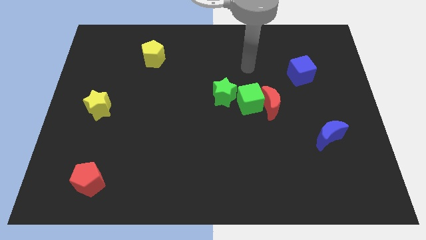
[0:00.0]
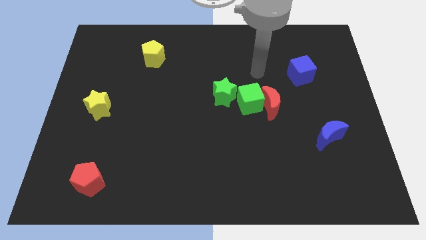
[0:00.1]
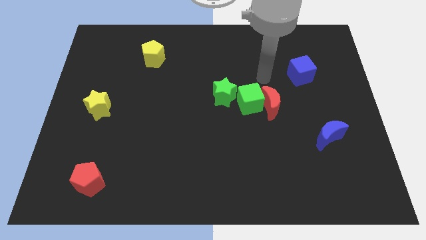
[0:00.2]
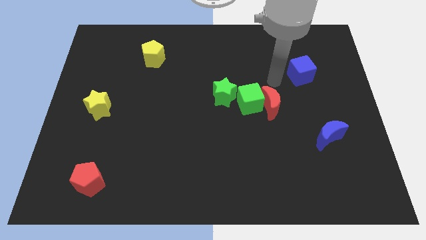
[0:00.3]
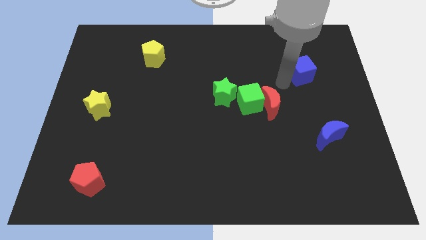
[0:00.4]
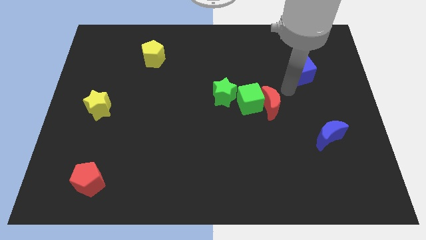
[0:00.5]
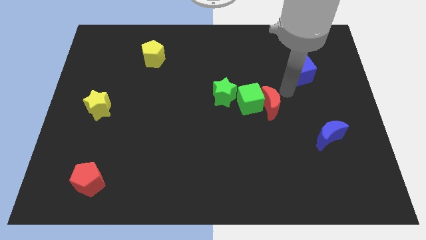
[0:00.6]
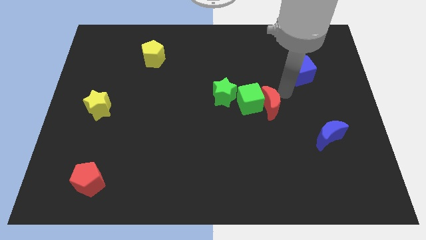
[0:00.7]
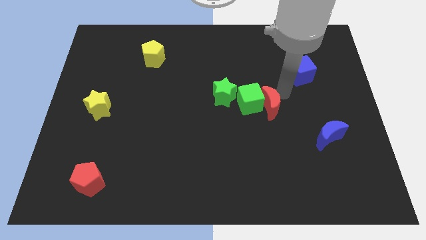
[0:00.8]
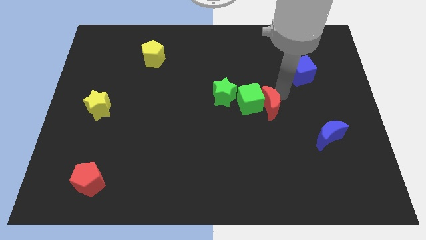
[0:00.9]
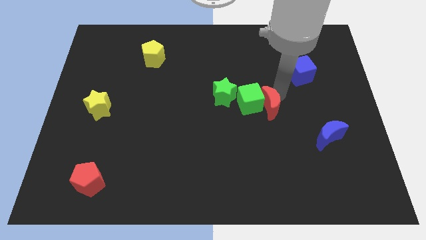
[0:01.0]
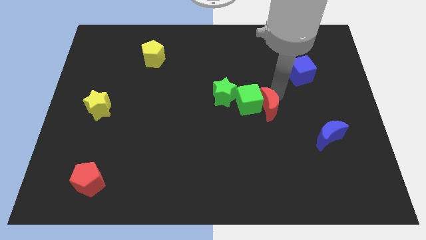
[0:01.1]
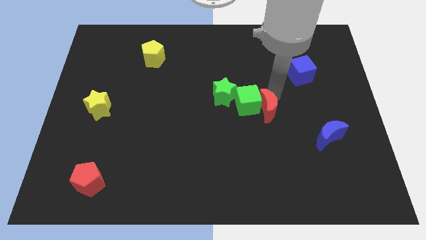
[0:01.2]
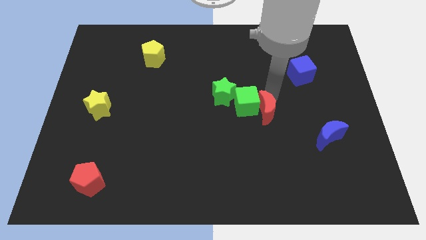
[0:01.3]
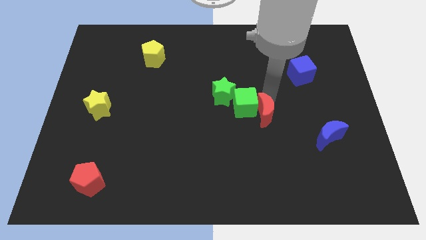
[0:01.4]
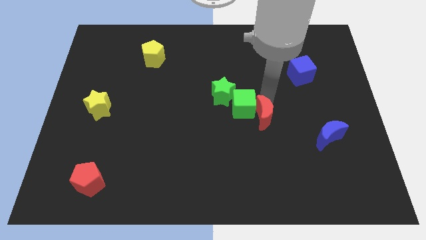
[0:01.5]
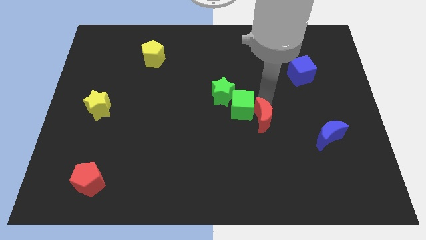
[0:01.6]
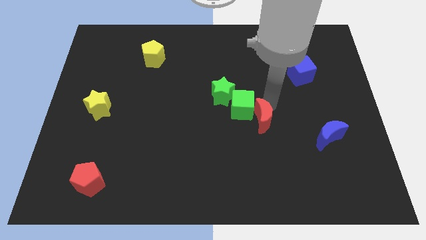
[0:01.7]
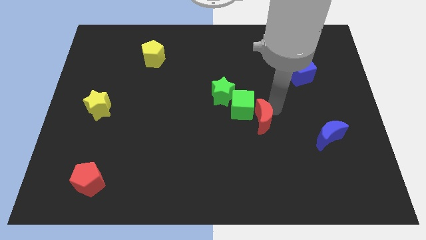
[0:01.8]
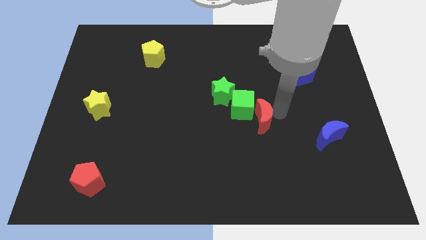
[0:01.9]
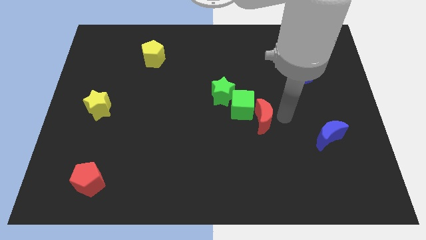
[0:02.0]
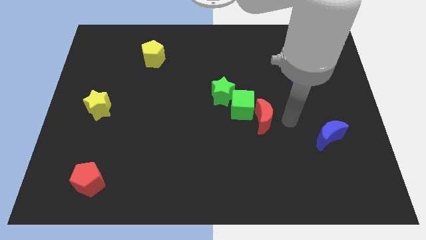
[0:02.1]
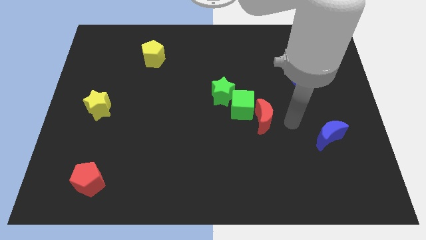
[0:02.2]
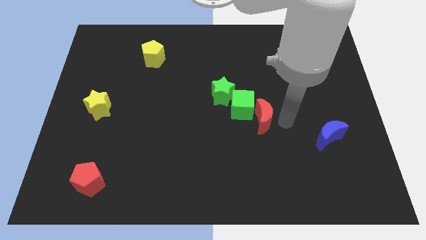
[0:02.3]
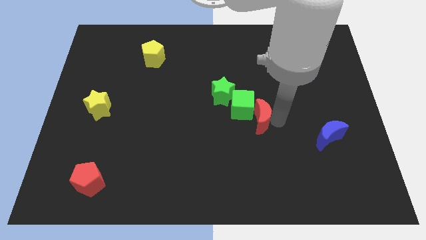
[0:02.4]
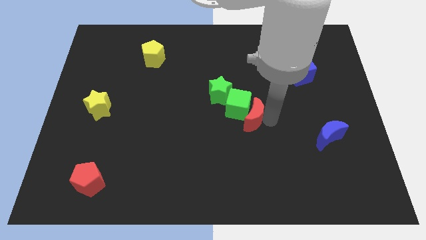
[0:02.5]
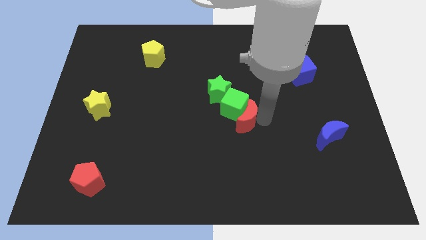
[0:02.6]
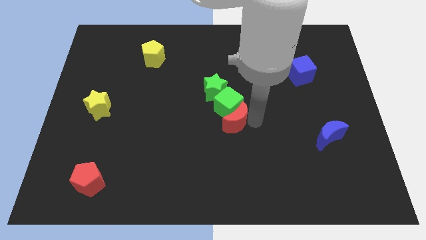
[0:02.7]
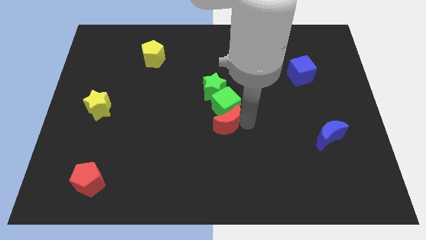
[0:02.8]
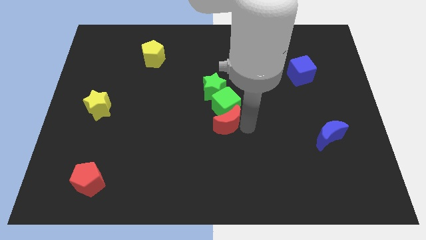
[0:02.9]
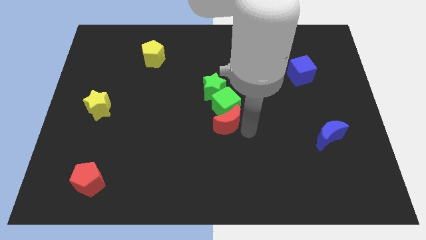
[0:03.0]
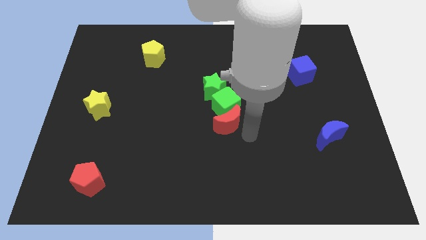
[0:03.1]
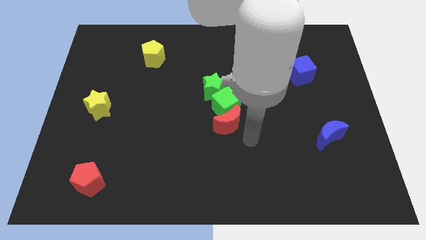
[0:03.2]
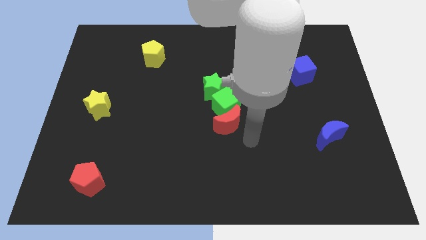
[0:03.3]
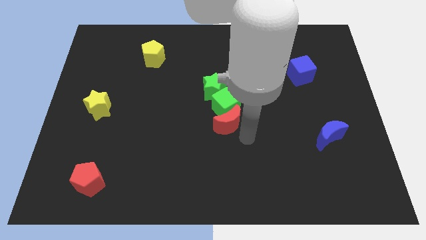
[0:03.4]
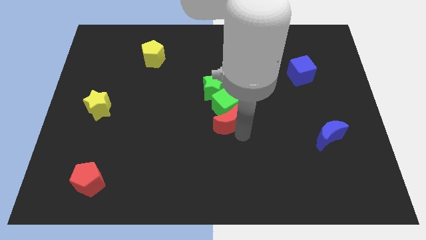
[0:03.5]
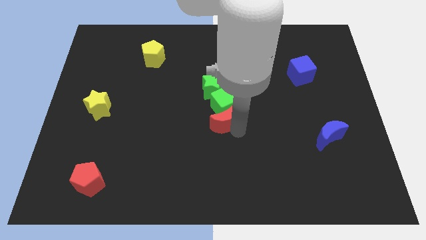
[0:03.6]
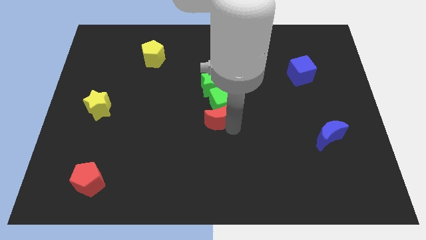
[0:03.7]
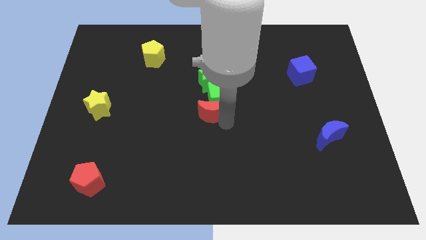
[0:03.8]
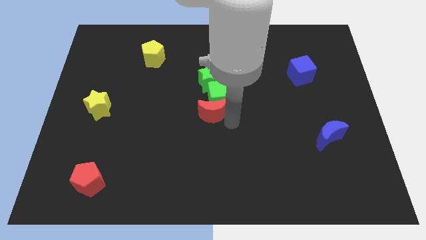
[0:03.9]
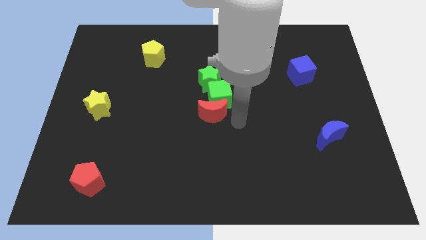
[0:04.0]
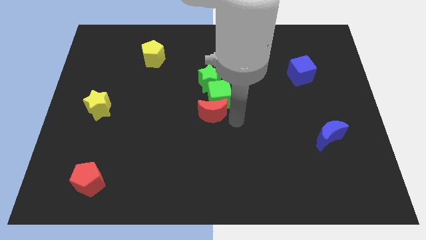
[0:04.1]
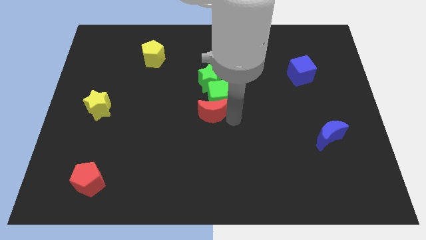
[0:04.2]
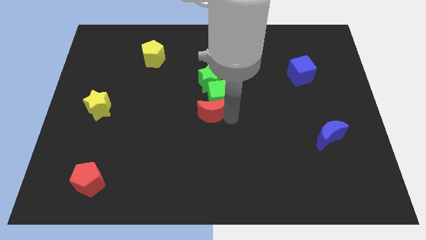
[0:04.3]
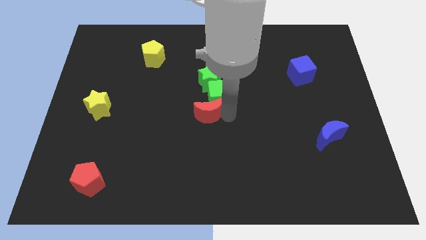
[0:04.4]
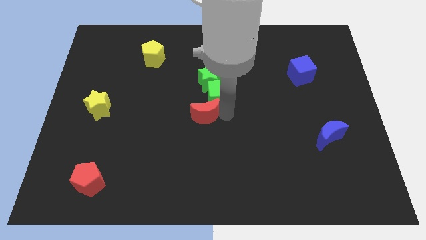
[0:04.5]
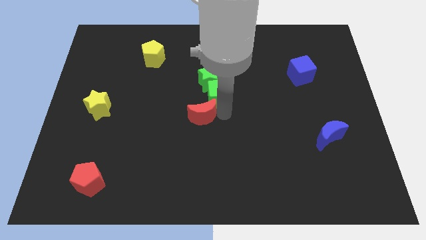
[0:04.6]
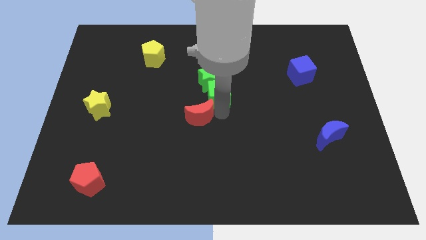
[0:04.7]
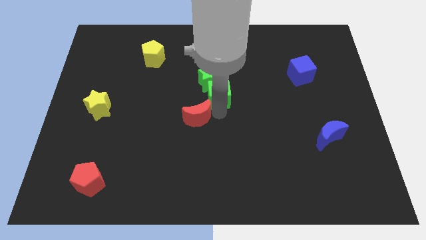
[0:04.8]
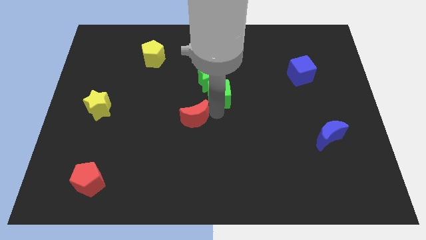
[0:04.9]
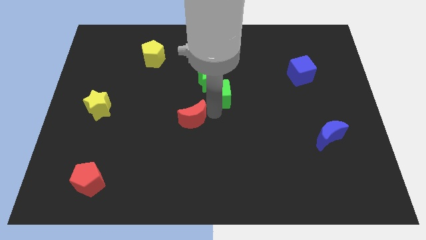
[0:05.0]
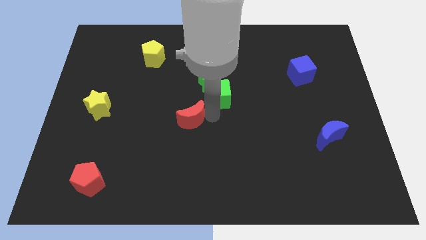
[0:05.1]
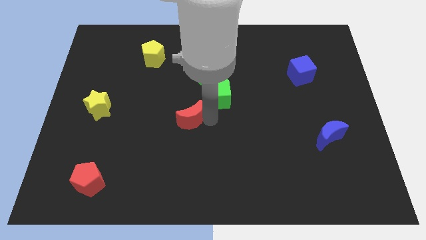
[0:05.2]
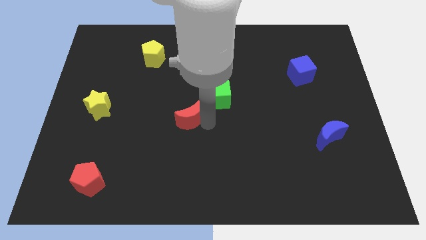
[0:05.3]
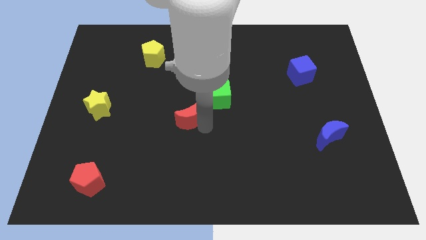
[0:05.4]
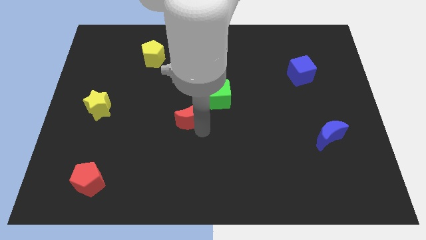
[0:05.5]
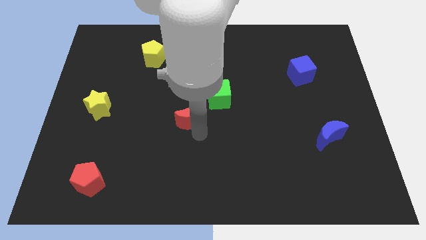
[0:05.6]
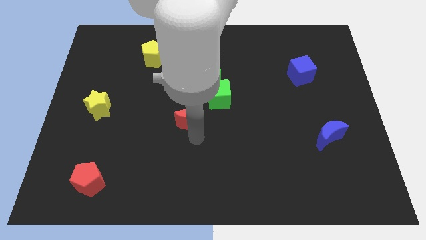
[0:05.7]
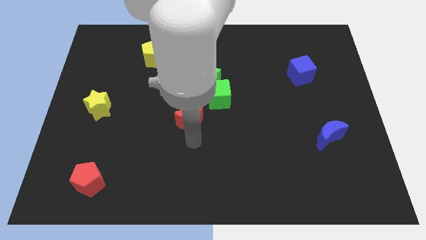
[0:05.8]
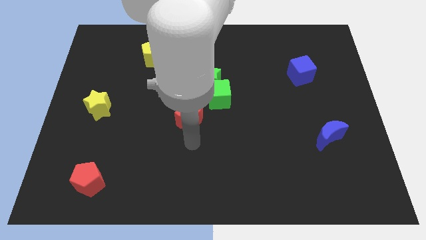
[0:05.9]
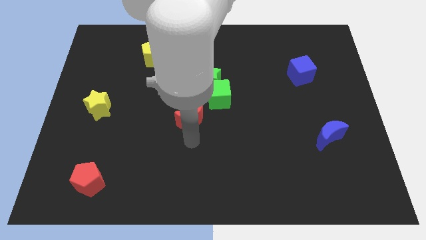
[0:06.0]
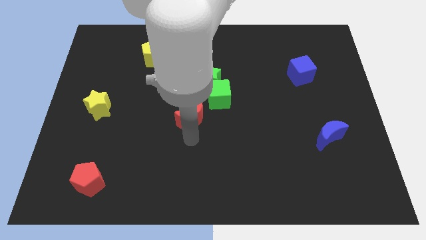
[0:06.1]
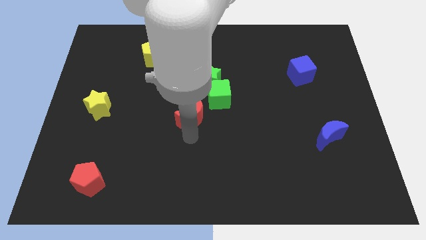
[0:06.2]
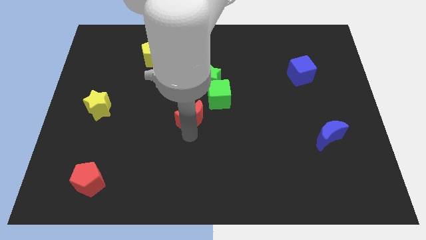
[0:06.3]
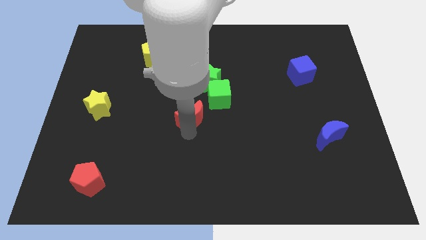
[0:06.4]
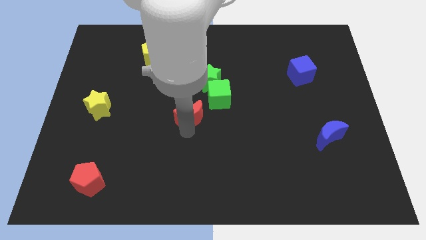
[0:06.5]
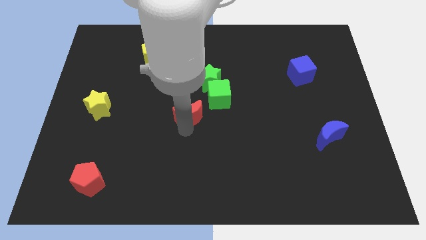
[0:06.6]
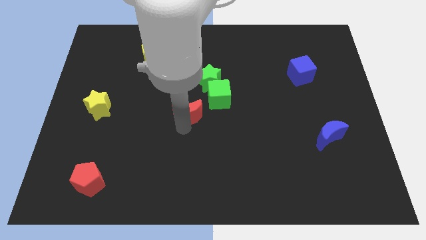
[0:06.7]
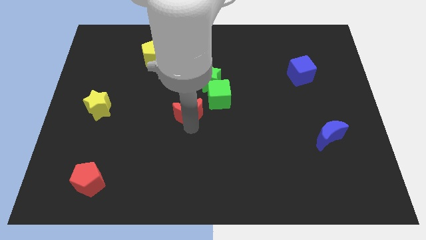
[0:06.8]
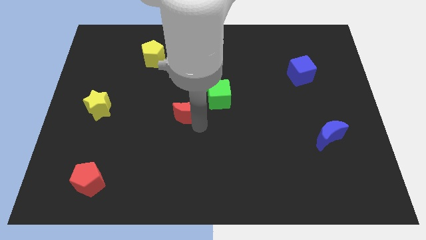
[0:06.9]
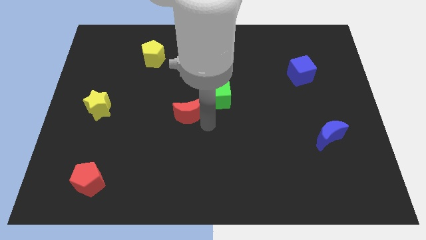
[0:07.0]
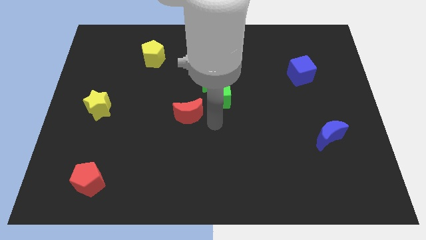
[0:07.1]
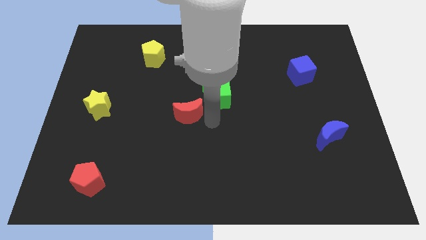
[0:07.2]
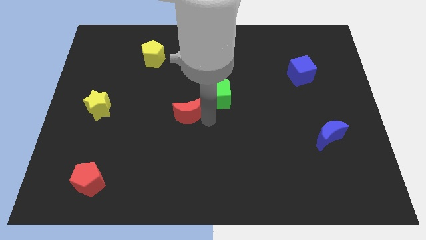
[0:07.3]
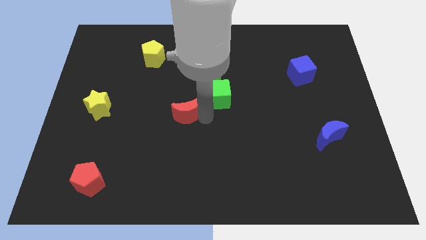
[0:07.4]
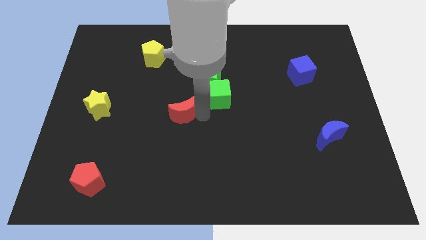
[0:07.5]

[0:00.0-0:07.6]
push the red moon to the left

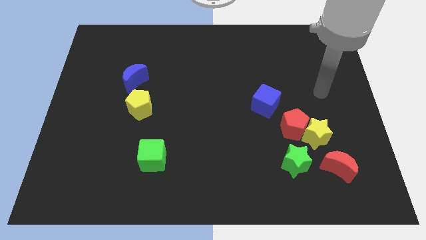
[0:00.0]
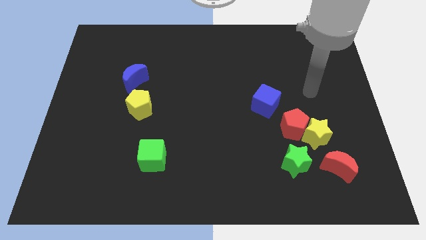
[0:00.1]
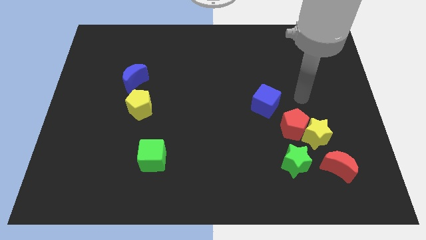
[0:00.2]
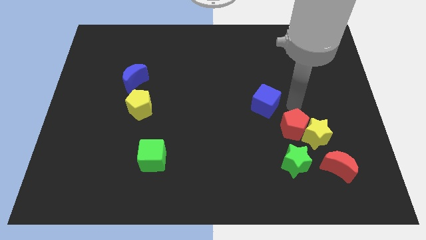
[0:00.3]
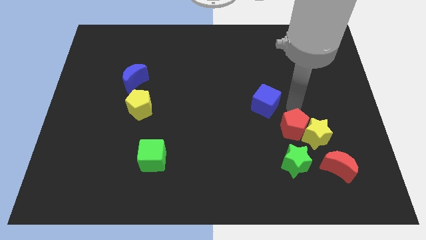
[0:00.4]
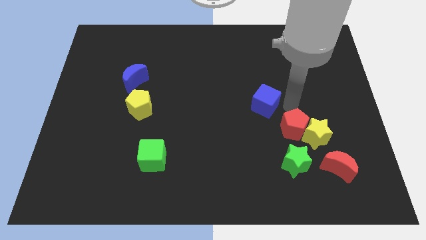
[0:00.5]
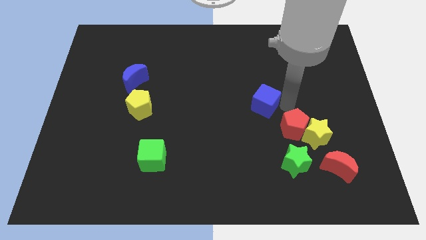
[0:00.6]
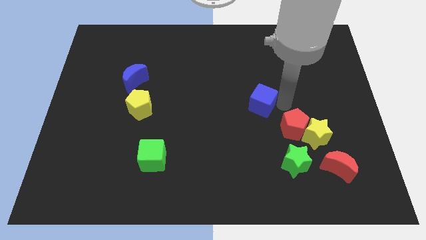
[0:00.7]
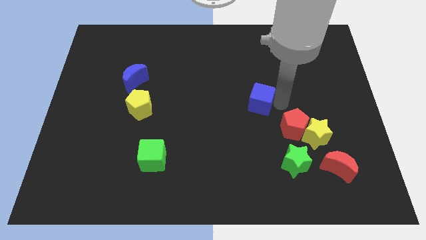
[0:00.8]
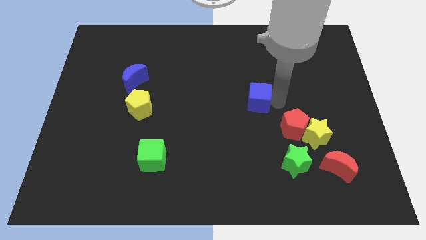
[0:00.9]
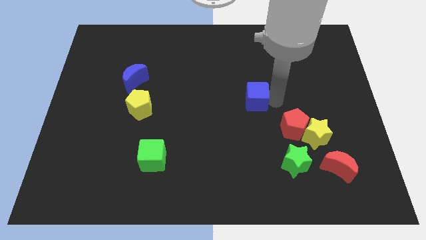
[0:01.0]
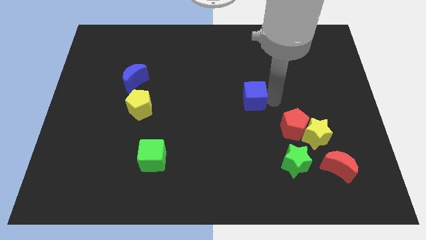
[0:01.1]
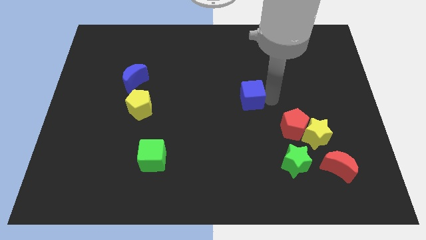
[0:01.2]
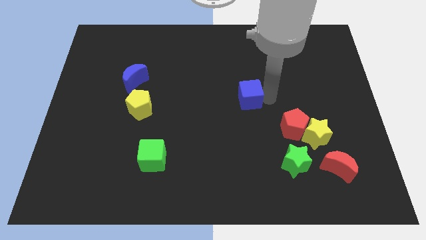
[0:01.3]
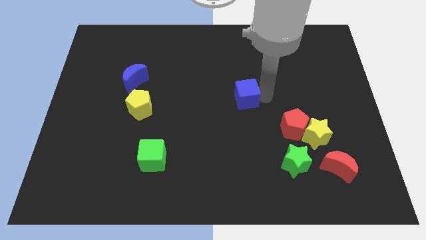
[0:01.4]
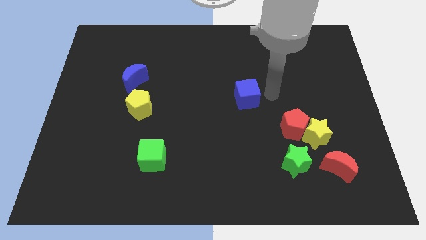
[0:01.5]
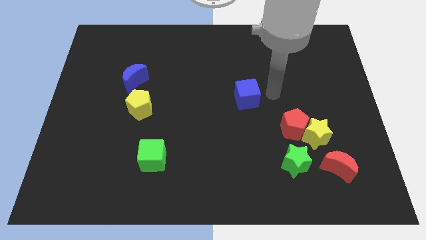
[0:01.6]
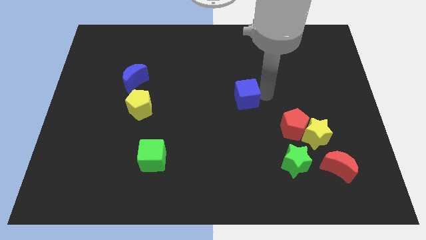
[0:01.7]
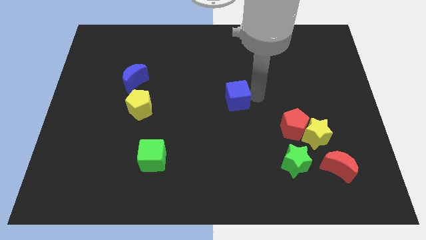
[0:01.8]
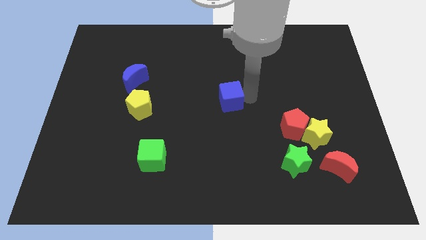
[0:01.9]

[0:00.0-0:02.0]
move the blue cube somewhat to the left
